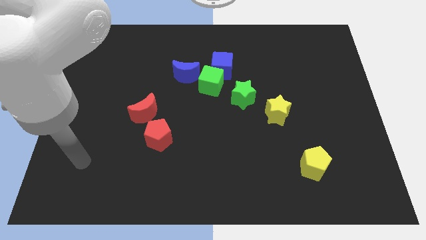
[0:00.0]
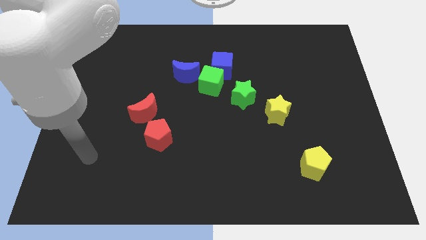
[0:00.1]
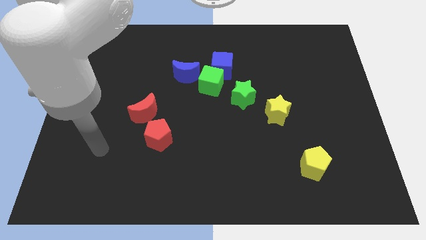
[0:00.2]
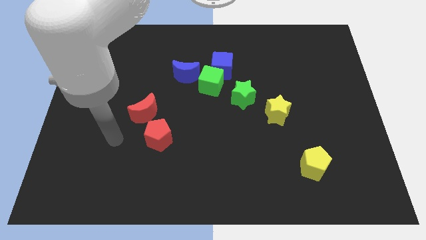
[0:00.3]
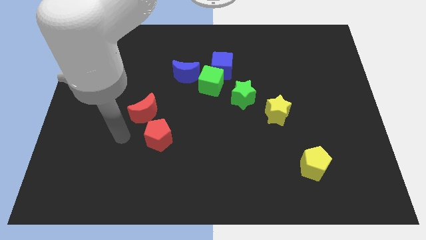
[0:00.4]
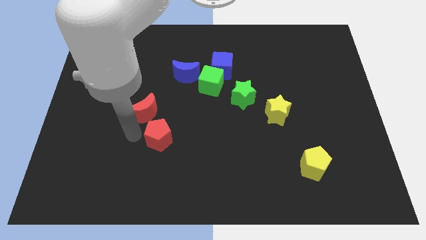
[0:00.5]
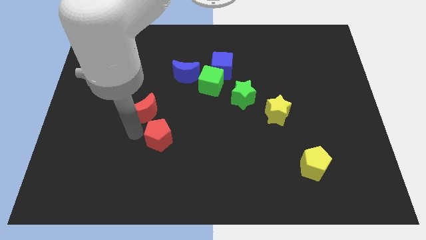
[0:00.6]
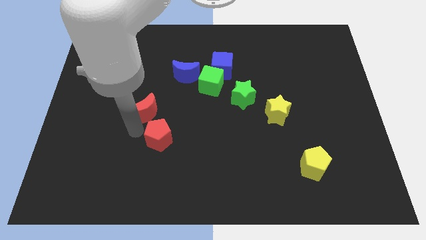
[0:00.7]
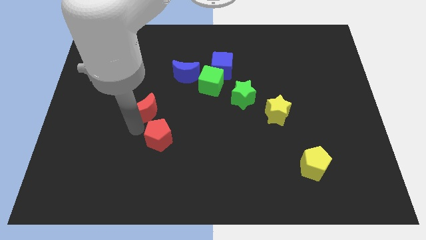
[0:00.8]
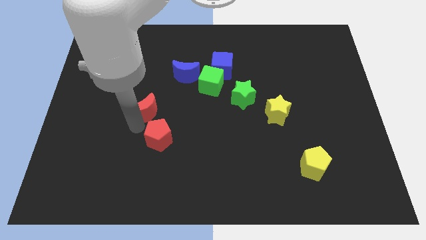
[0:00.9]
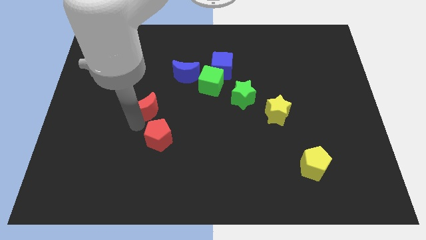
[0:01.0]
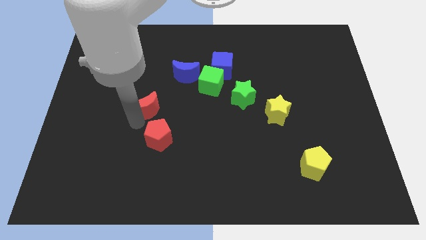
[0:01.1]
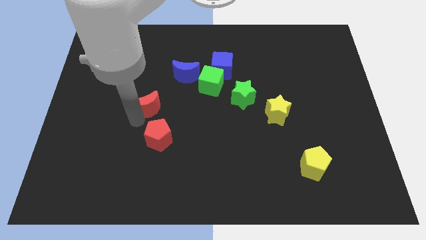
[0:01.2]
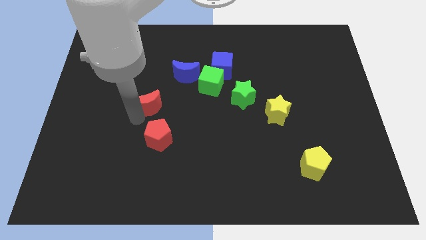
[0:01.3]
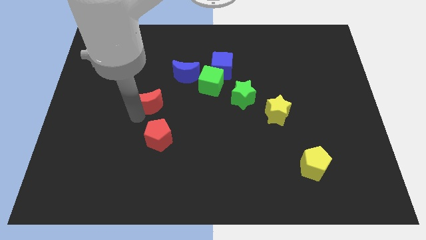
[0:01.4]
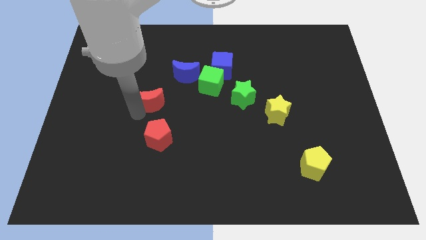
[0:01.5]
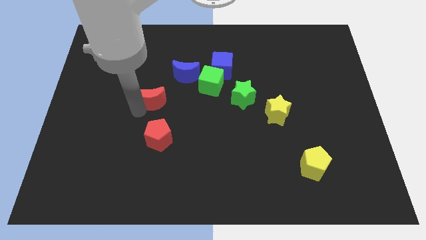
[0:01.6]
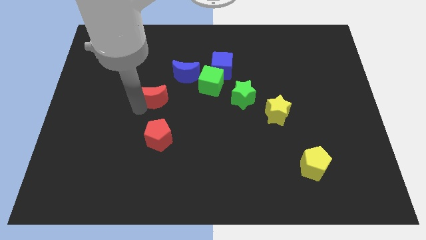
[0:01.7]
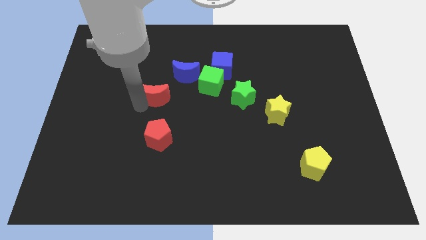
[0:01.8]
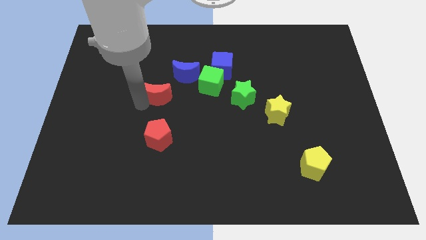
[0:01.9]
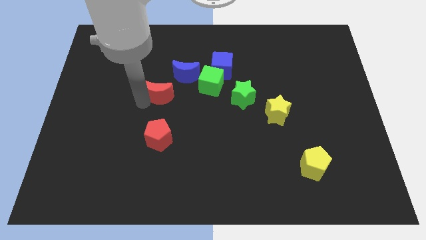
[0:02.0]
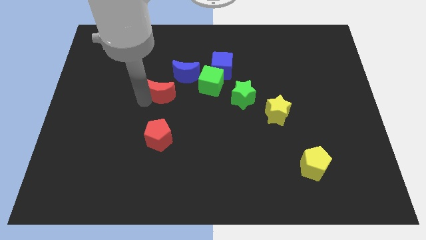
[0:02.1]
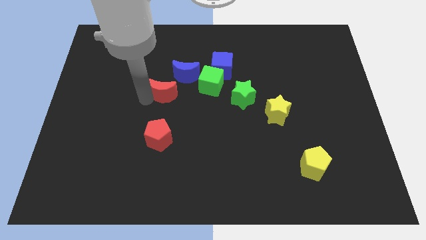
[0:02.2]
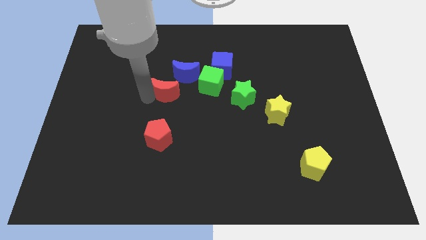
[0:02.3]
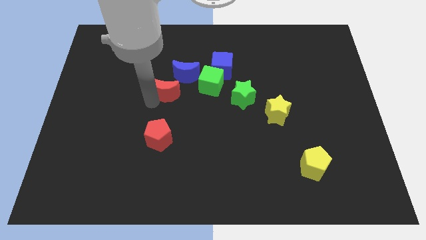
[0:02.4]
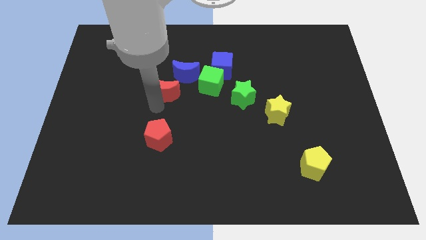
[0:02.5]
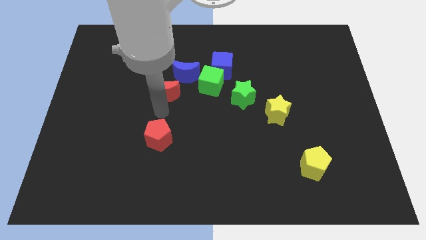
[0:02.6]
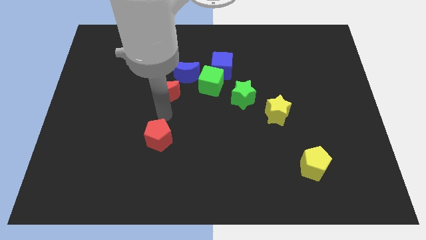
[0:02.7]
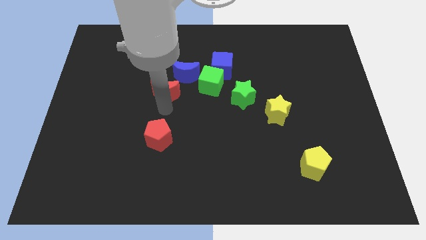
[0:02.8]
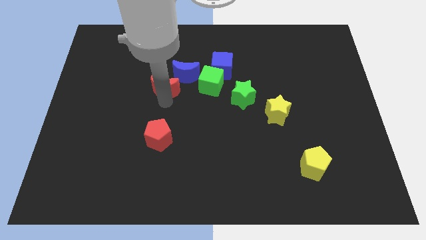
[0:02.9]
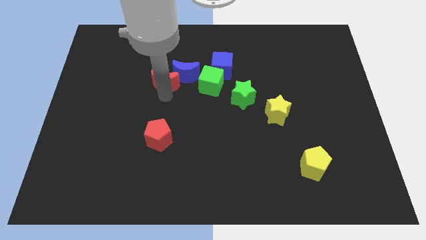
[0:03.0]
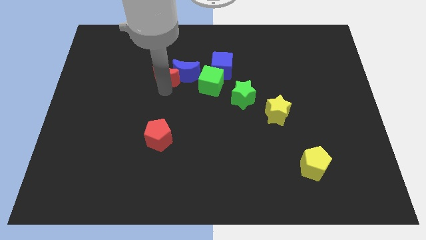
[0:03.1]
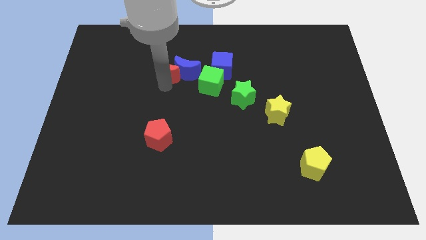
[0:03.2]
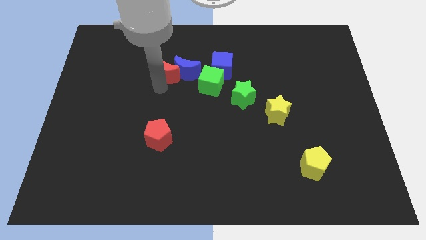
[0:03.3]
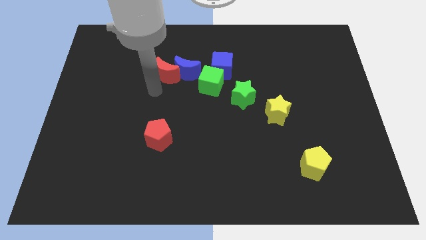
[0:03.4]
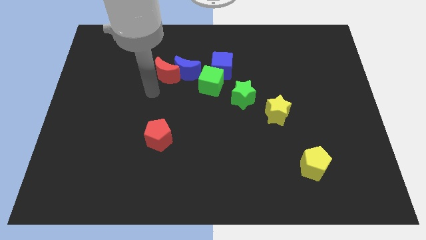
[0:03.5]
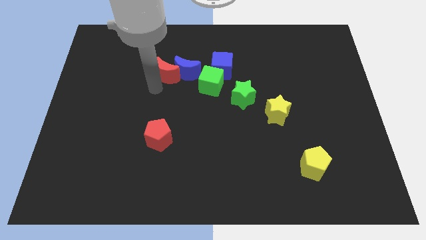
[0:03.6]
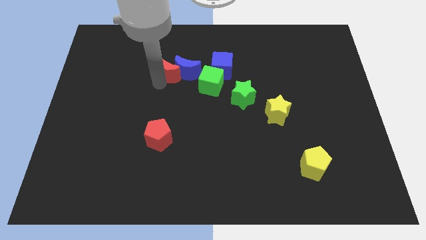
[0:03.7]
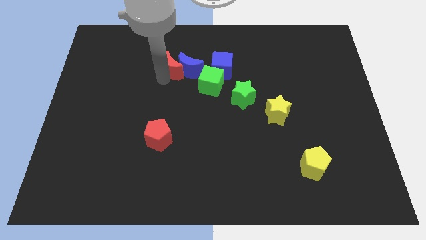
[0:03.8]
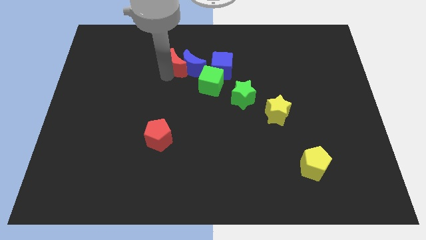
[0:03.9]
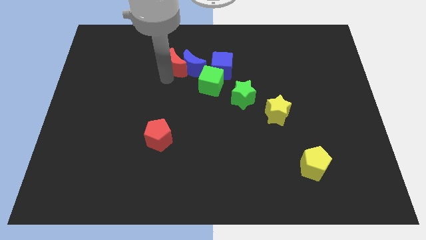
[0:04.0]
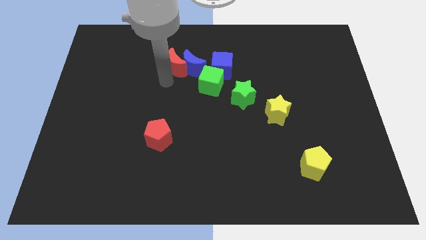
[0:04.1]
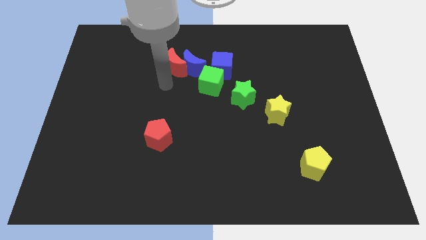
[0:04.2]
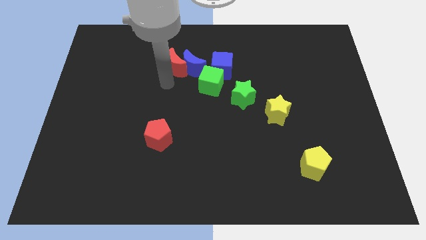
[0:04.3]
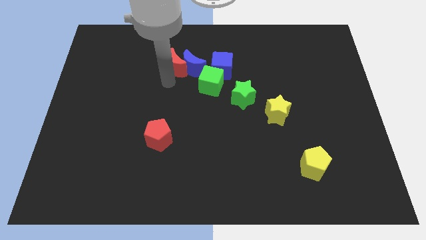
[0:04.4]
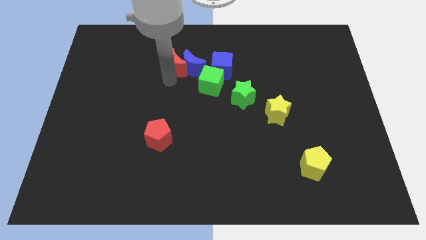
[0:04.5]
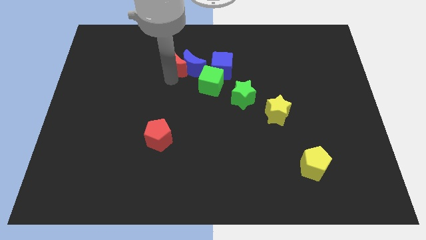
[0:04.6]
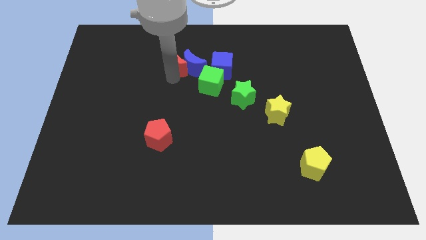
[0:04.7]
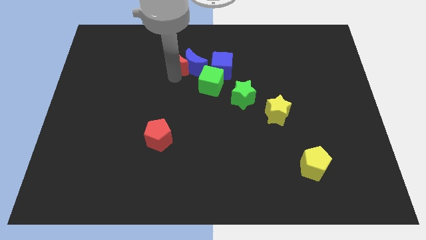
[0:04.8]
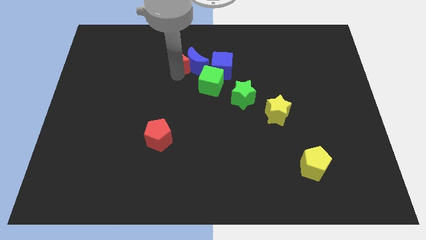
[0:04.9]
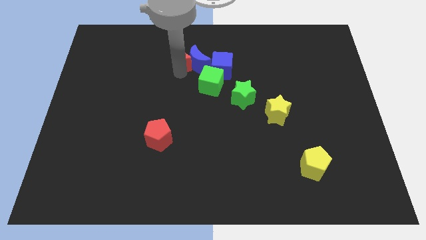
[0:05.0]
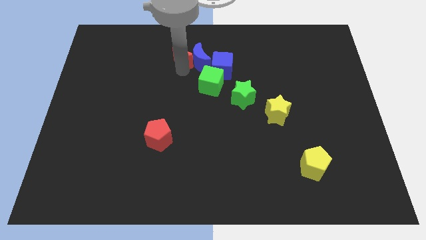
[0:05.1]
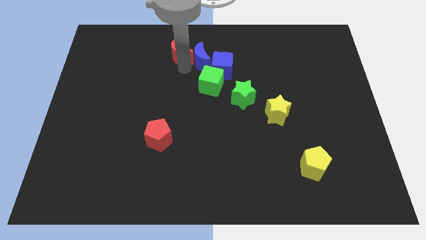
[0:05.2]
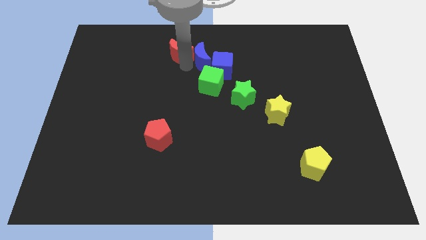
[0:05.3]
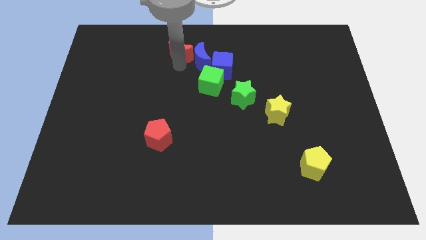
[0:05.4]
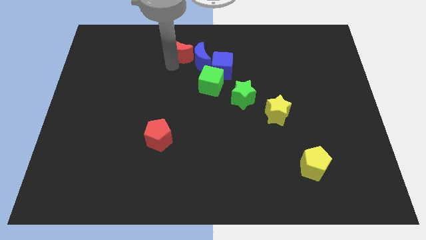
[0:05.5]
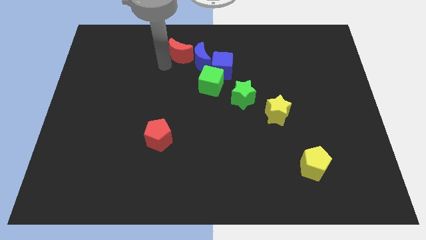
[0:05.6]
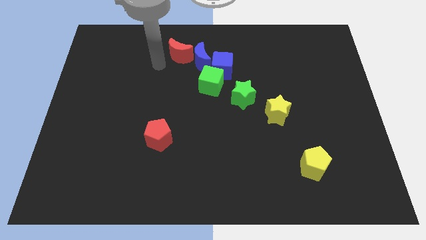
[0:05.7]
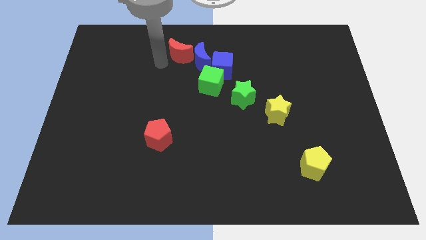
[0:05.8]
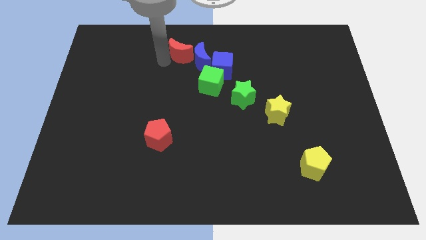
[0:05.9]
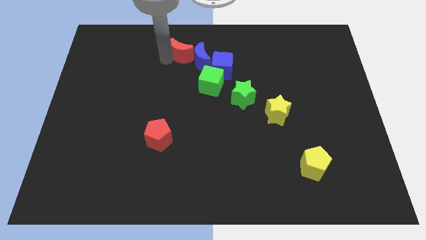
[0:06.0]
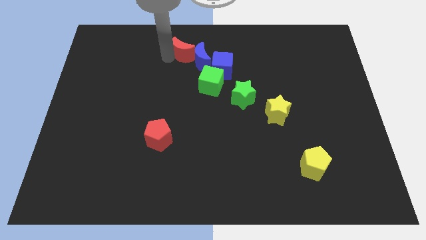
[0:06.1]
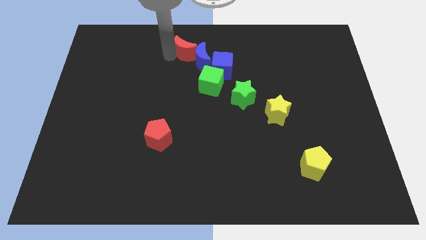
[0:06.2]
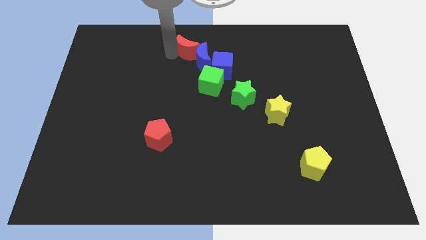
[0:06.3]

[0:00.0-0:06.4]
slide the red moon to the top side

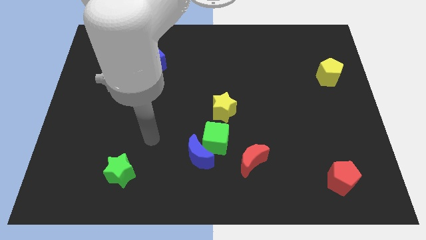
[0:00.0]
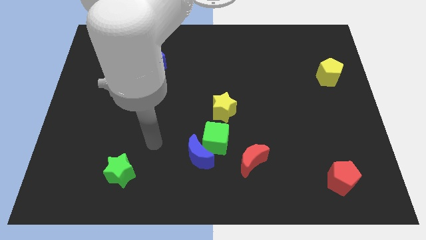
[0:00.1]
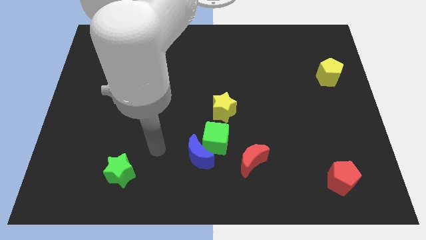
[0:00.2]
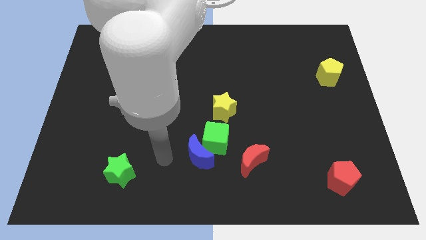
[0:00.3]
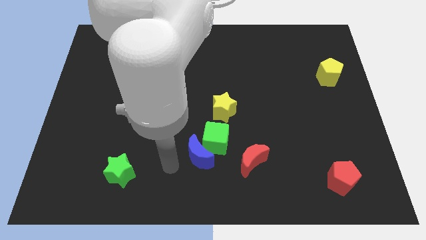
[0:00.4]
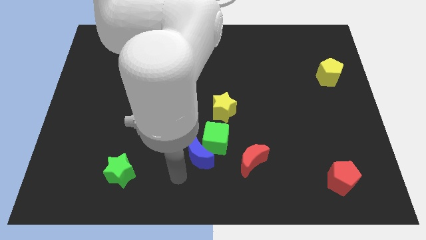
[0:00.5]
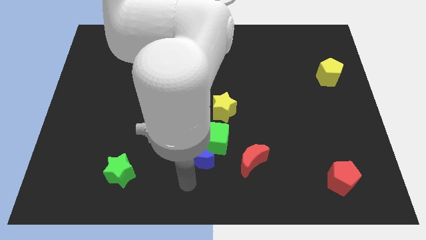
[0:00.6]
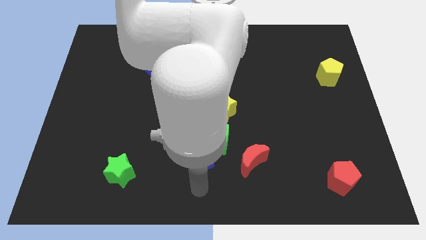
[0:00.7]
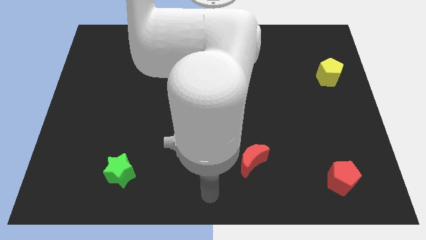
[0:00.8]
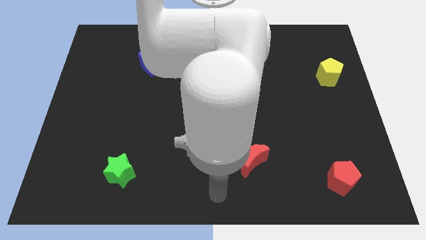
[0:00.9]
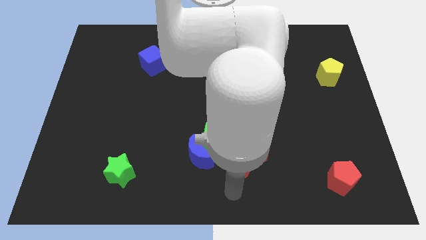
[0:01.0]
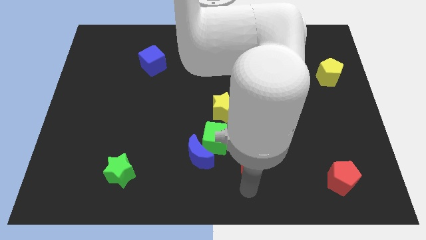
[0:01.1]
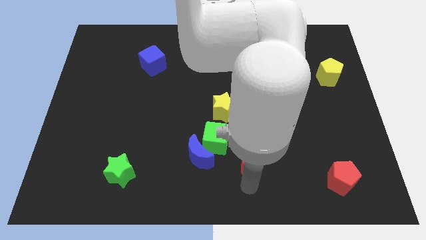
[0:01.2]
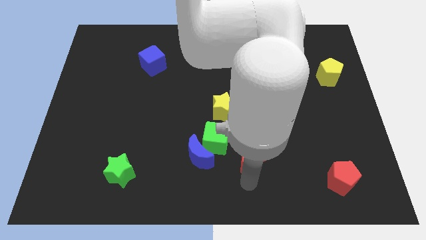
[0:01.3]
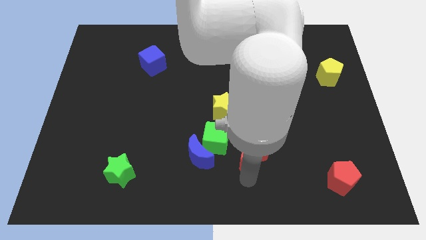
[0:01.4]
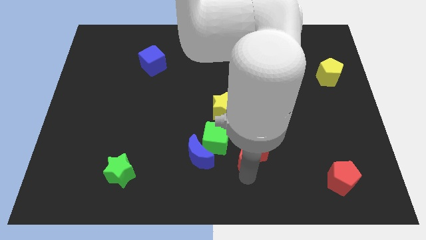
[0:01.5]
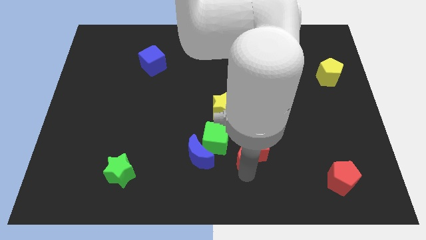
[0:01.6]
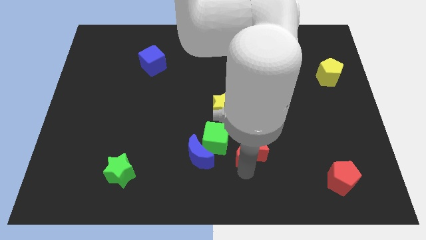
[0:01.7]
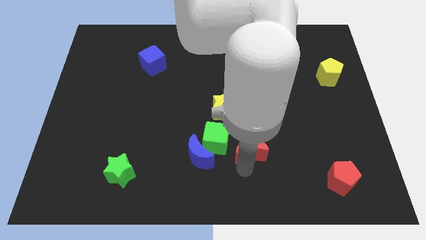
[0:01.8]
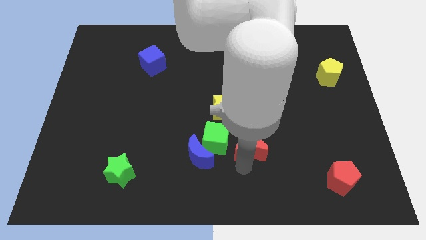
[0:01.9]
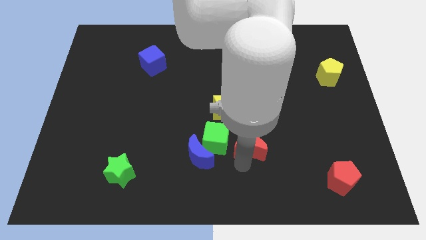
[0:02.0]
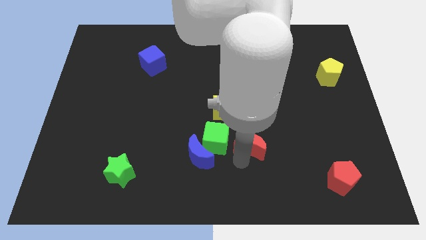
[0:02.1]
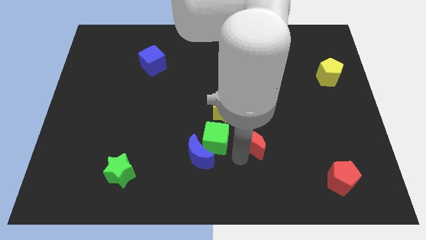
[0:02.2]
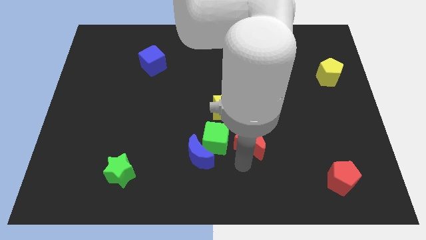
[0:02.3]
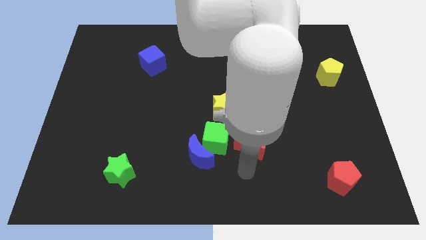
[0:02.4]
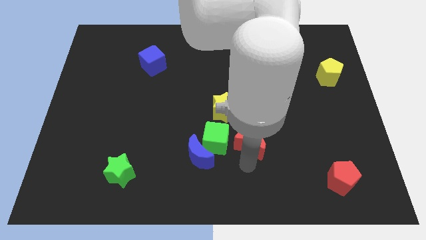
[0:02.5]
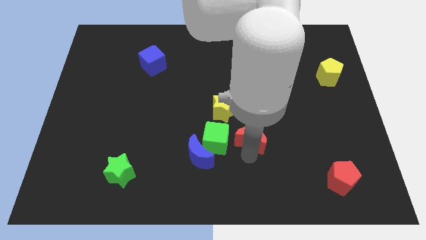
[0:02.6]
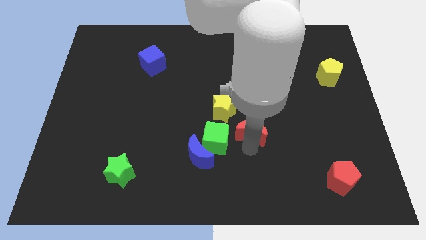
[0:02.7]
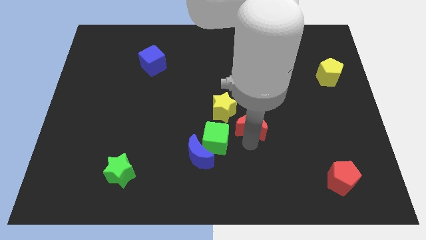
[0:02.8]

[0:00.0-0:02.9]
move the red moon to the middle
